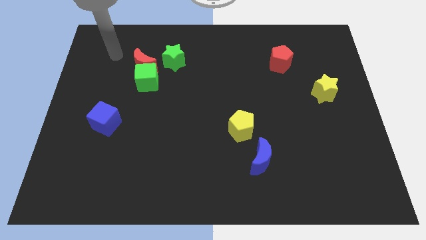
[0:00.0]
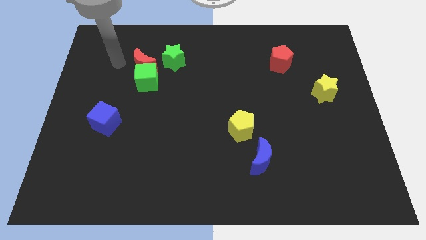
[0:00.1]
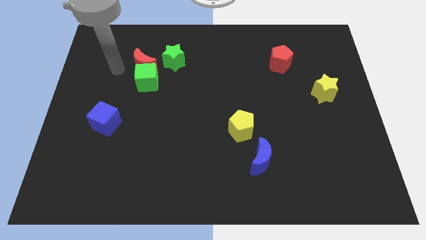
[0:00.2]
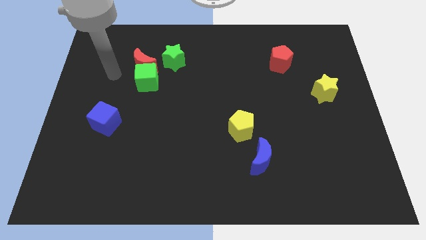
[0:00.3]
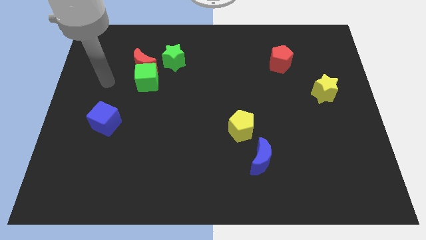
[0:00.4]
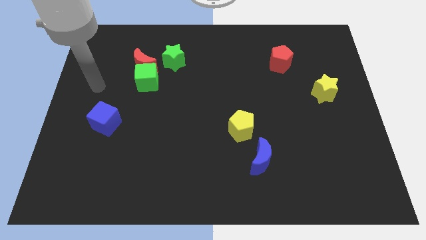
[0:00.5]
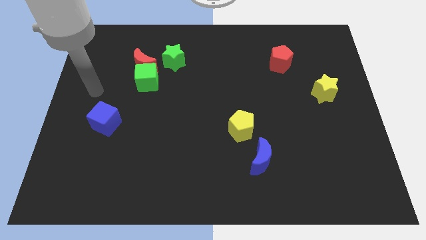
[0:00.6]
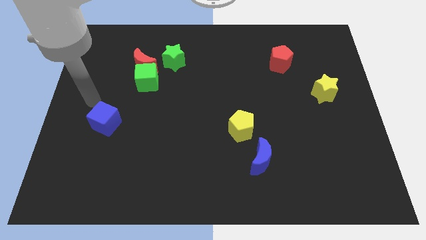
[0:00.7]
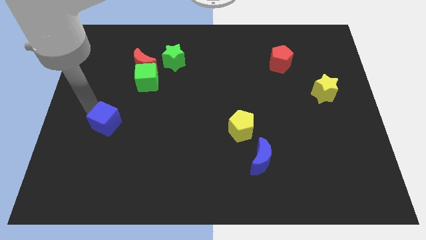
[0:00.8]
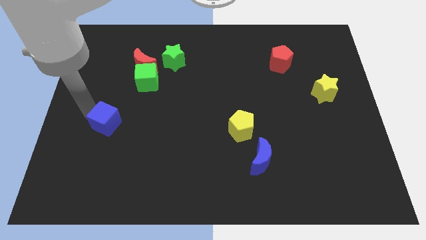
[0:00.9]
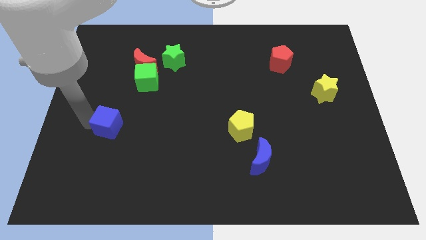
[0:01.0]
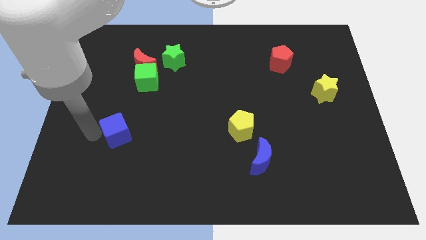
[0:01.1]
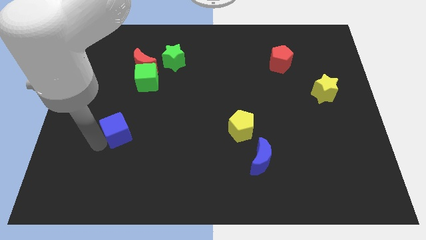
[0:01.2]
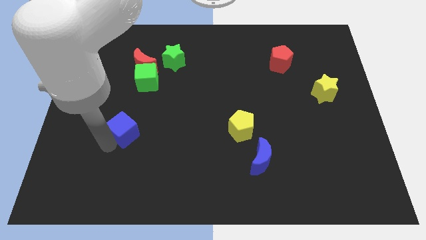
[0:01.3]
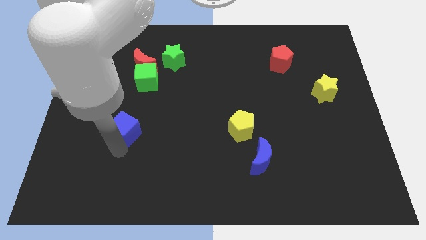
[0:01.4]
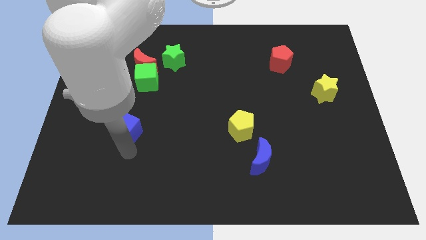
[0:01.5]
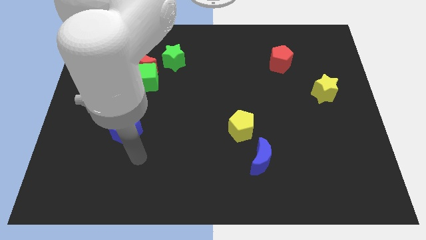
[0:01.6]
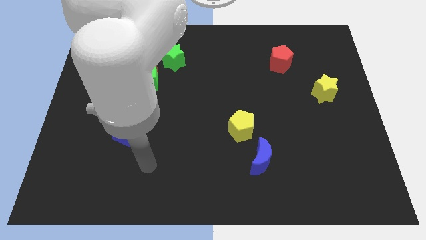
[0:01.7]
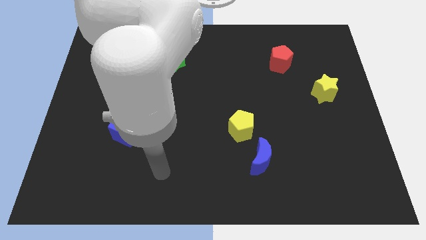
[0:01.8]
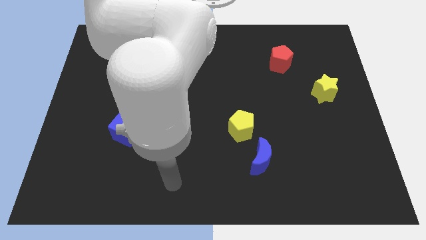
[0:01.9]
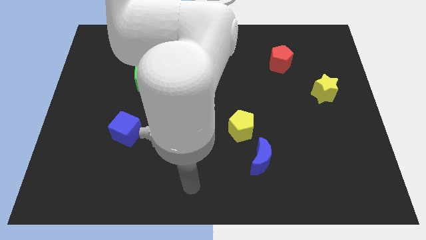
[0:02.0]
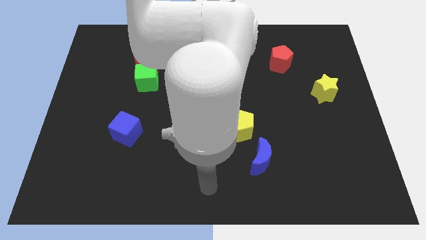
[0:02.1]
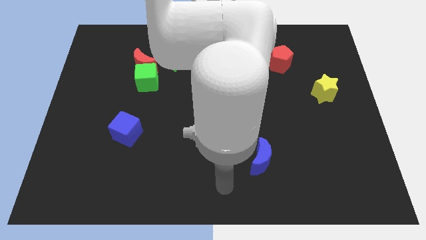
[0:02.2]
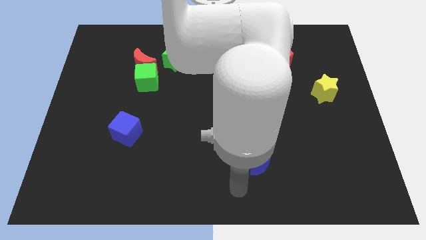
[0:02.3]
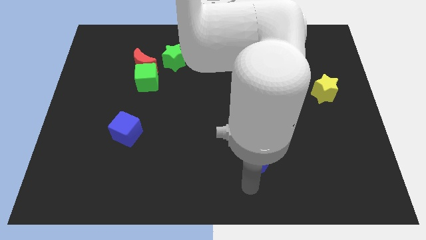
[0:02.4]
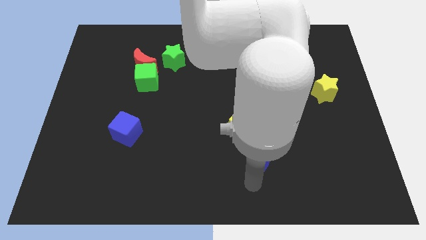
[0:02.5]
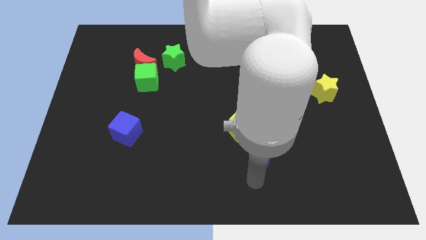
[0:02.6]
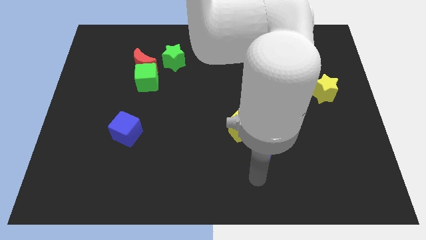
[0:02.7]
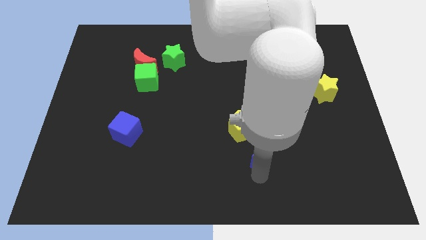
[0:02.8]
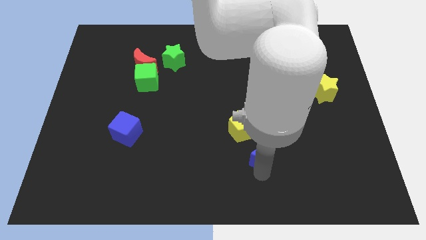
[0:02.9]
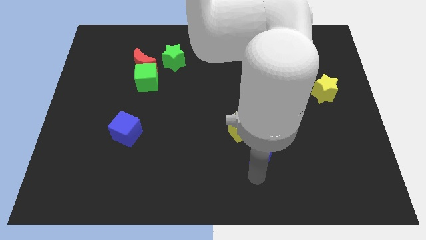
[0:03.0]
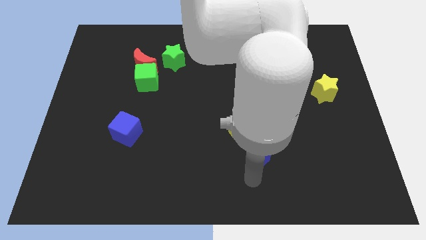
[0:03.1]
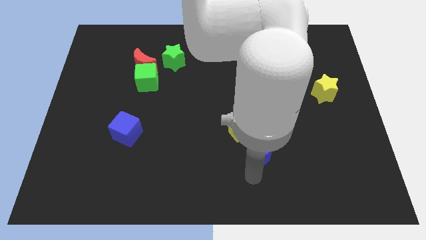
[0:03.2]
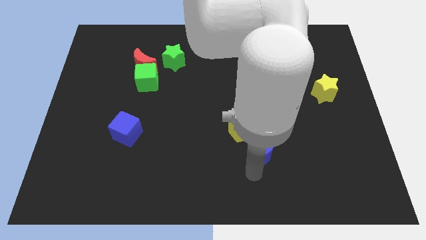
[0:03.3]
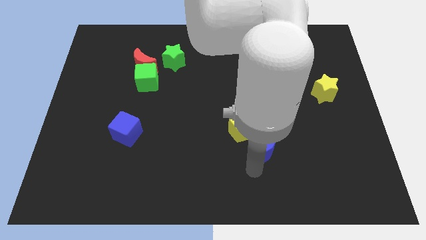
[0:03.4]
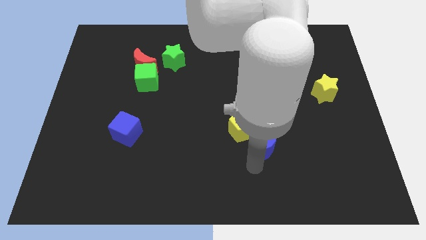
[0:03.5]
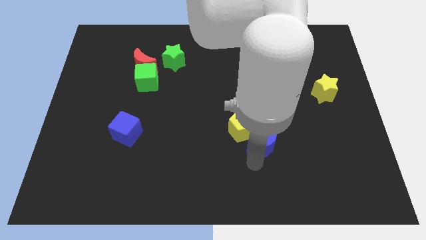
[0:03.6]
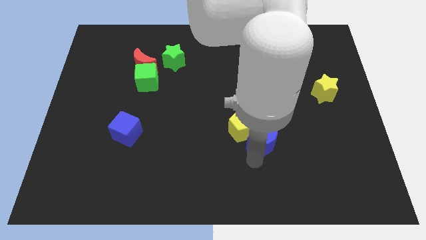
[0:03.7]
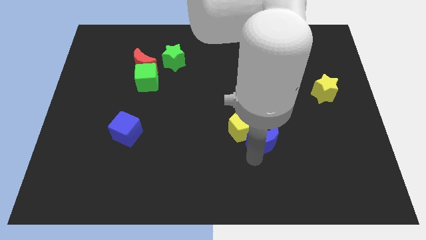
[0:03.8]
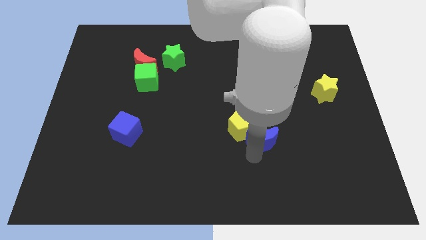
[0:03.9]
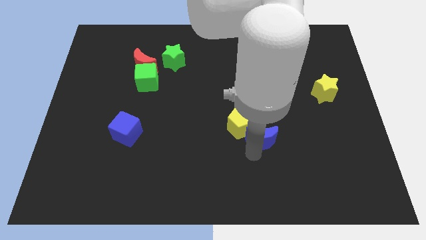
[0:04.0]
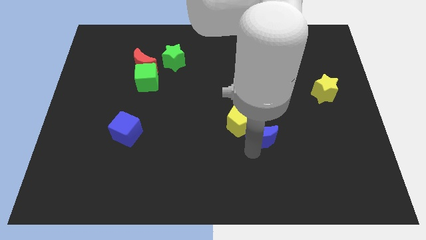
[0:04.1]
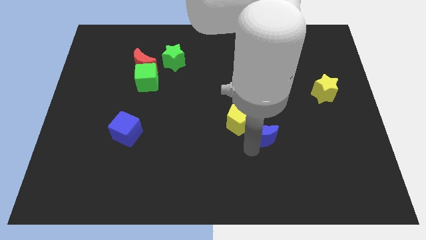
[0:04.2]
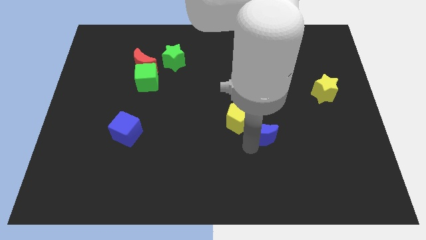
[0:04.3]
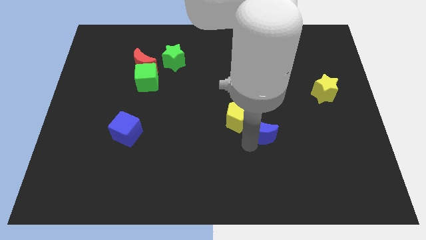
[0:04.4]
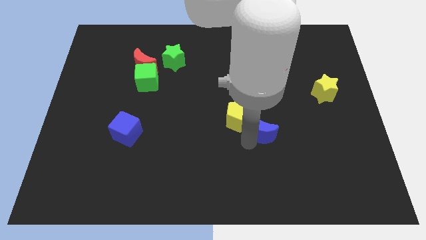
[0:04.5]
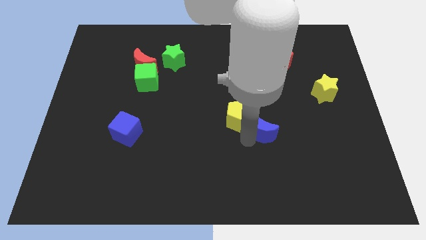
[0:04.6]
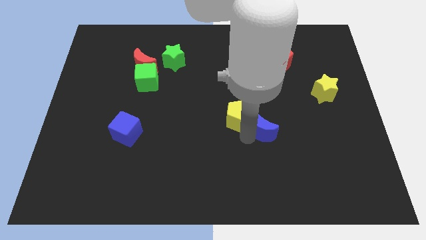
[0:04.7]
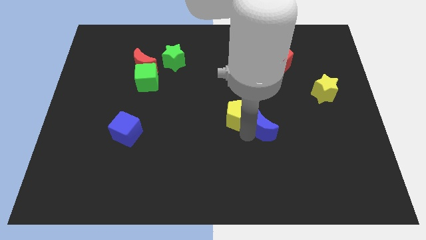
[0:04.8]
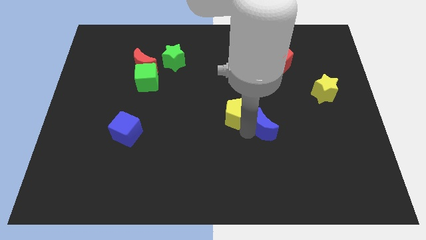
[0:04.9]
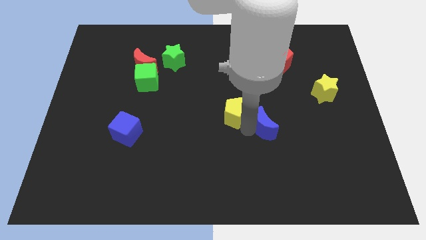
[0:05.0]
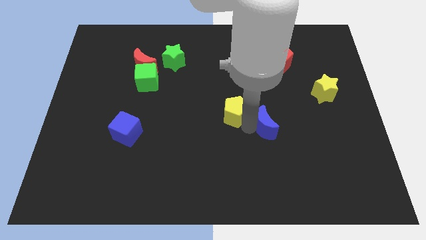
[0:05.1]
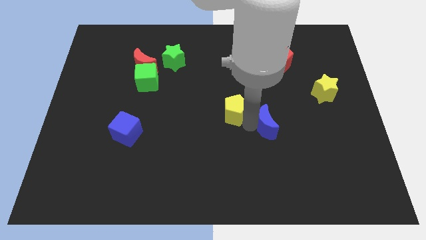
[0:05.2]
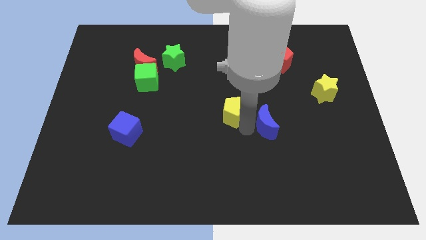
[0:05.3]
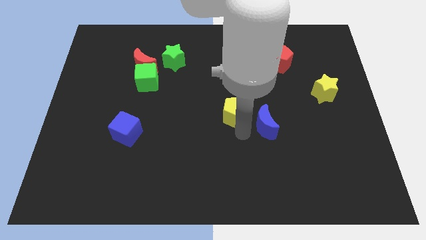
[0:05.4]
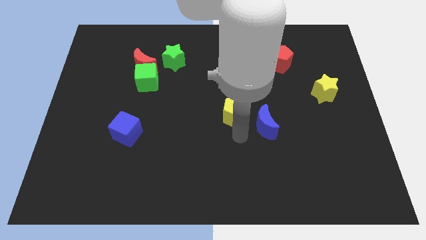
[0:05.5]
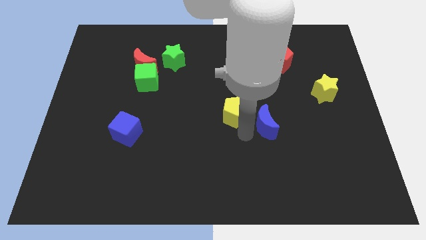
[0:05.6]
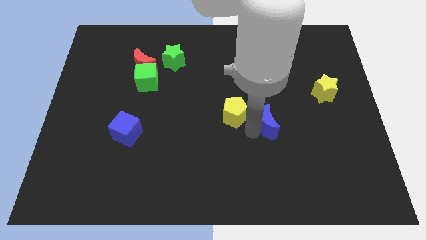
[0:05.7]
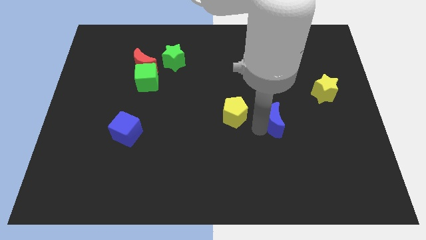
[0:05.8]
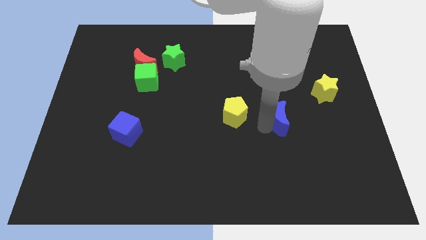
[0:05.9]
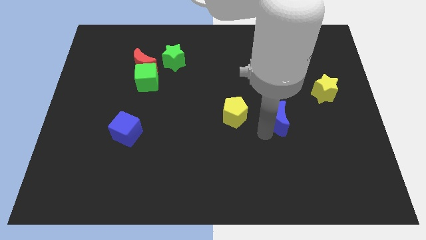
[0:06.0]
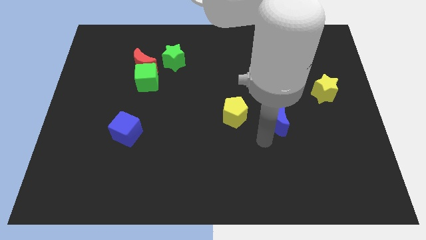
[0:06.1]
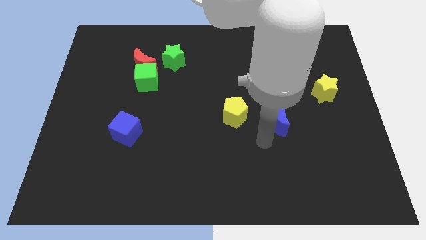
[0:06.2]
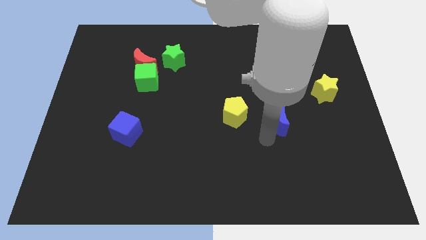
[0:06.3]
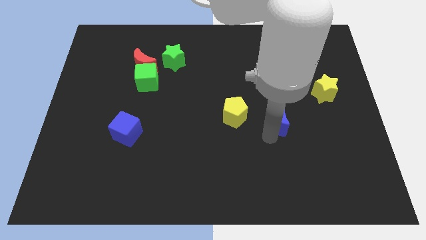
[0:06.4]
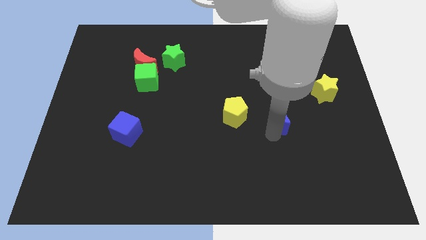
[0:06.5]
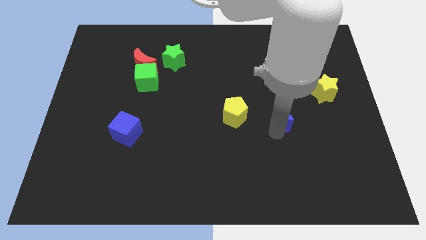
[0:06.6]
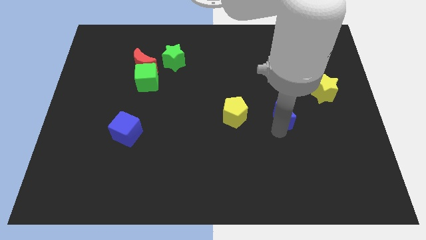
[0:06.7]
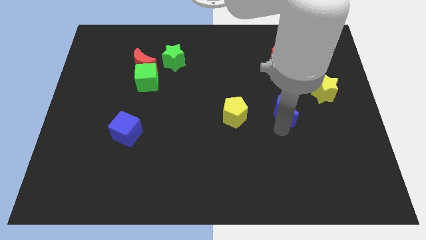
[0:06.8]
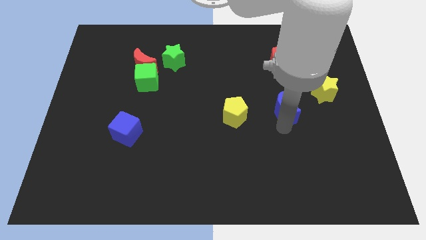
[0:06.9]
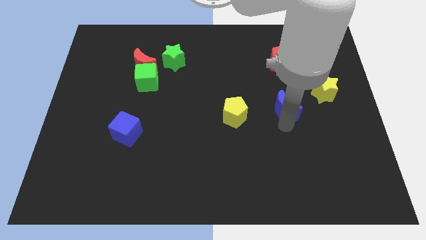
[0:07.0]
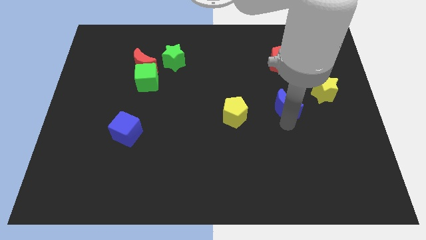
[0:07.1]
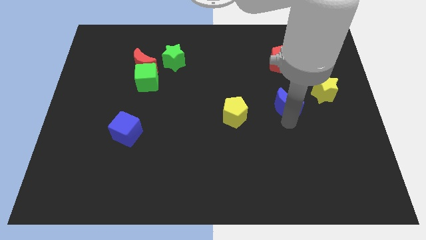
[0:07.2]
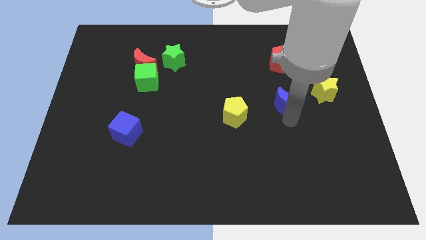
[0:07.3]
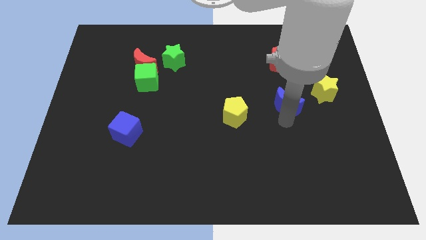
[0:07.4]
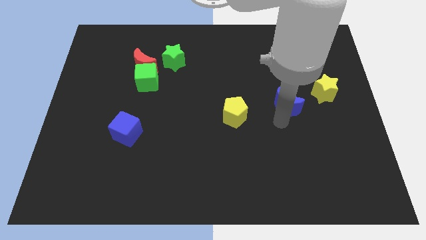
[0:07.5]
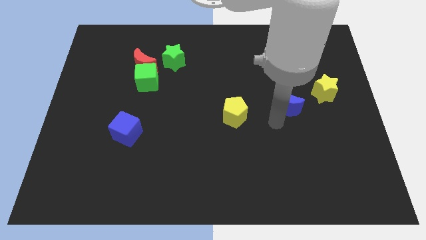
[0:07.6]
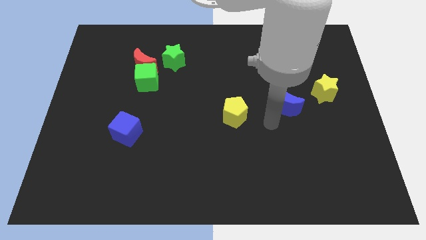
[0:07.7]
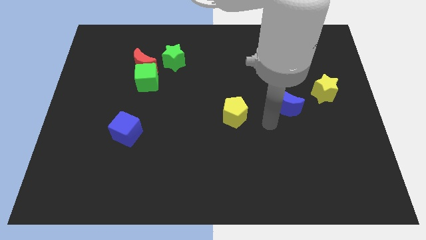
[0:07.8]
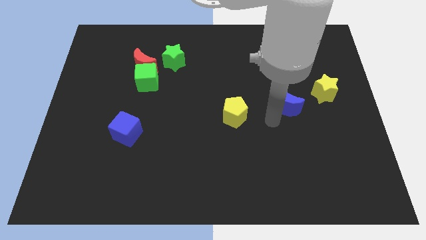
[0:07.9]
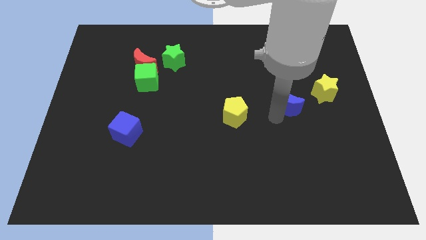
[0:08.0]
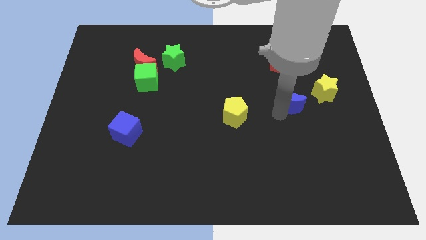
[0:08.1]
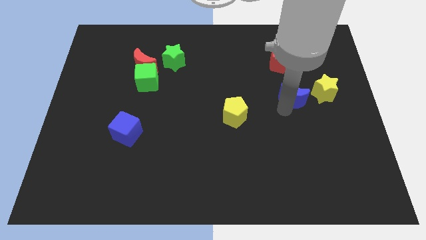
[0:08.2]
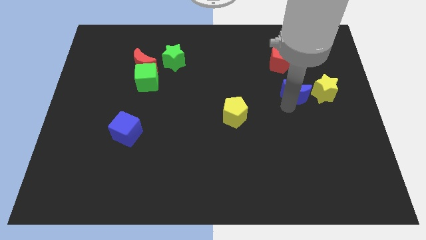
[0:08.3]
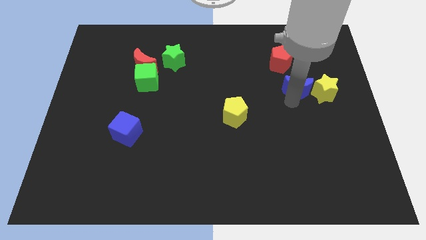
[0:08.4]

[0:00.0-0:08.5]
move the blue moon to the bottom right side of the red pentagon
